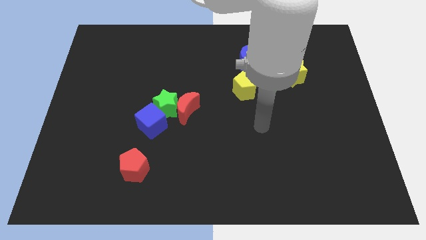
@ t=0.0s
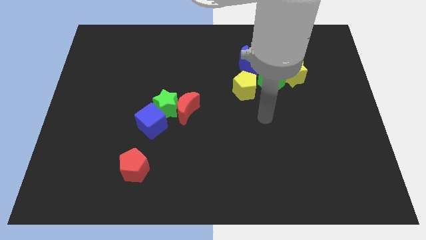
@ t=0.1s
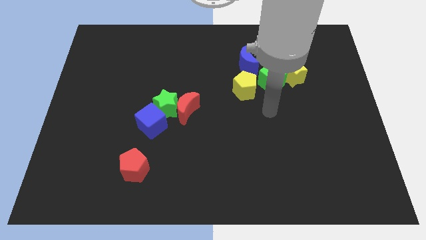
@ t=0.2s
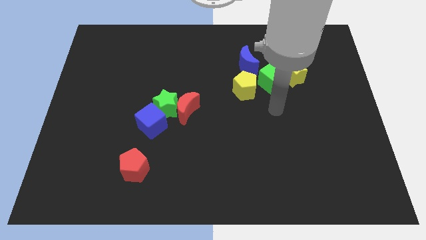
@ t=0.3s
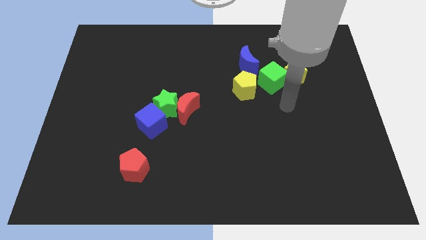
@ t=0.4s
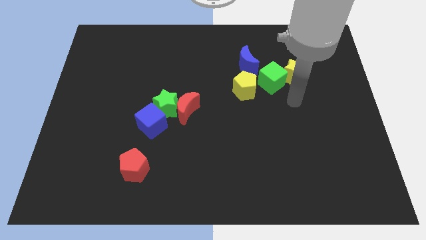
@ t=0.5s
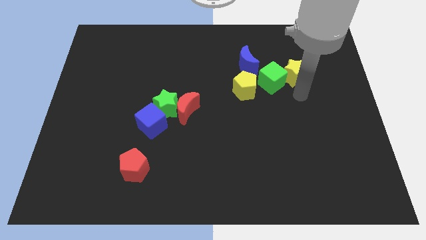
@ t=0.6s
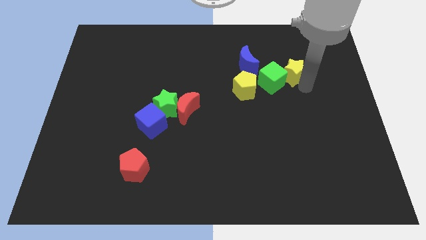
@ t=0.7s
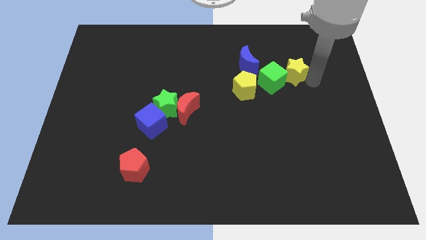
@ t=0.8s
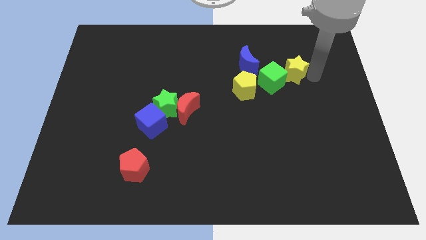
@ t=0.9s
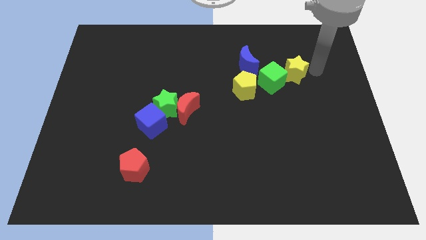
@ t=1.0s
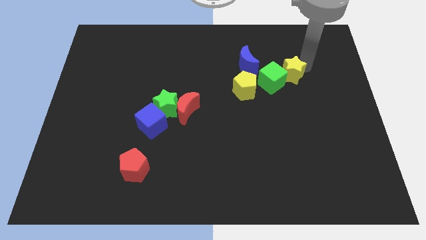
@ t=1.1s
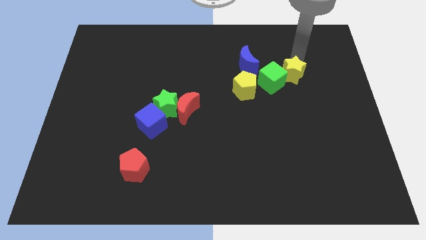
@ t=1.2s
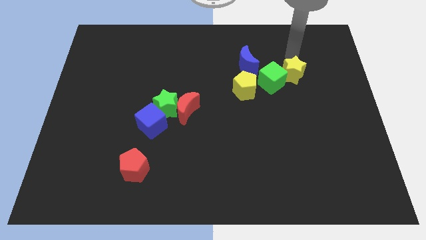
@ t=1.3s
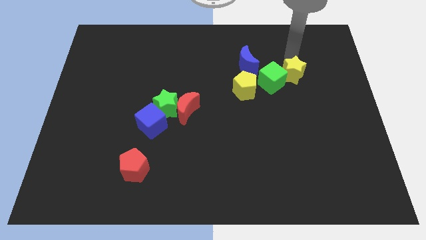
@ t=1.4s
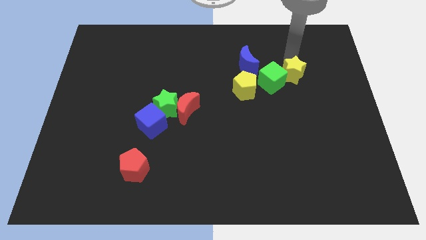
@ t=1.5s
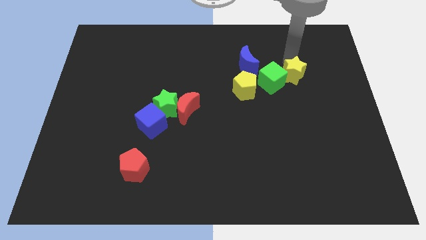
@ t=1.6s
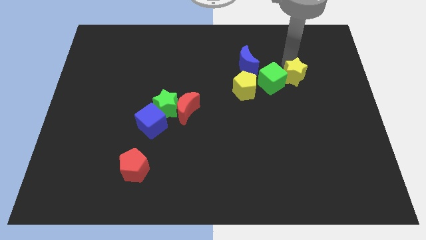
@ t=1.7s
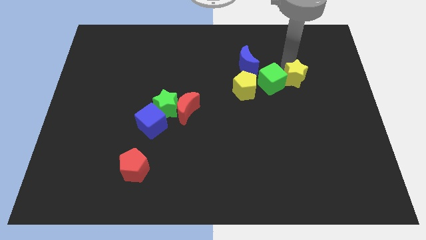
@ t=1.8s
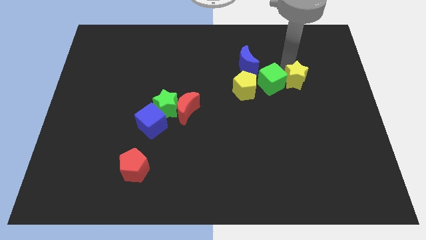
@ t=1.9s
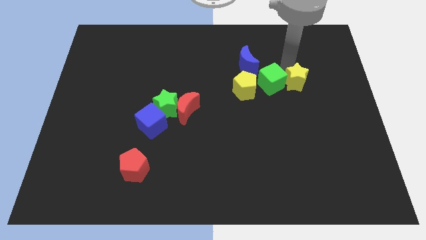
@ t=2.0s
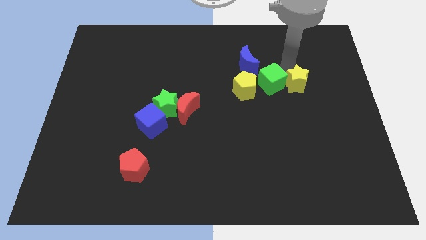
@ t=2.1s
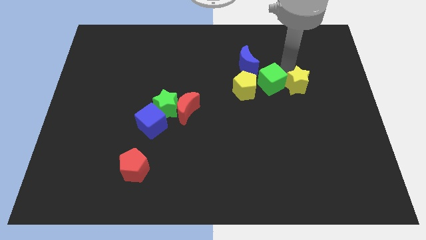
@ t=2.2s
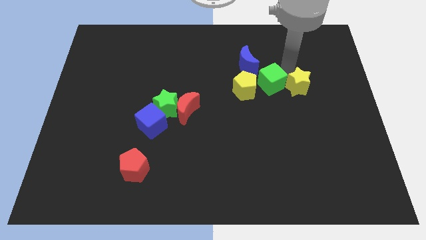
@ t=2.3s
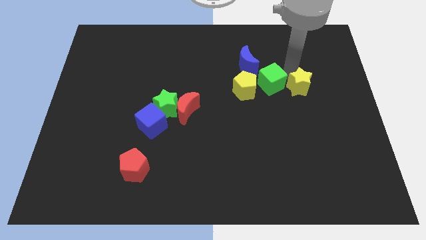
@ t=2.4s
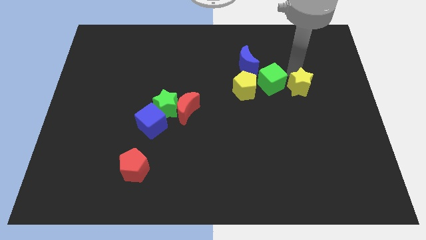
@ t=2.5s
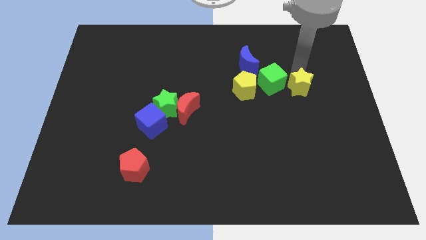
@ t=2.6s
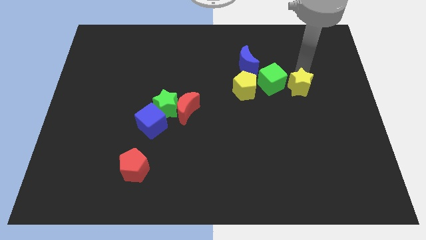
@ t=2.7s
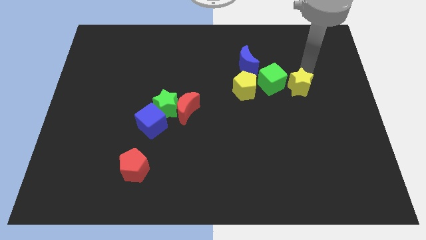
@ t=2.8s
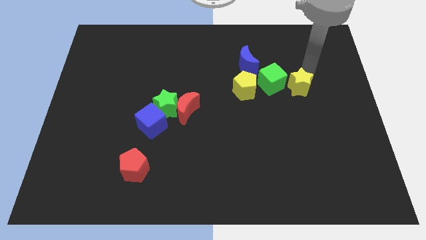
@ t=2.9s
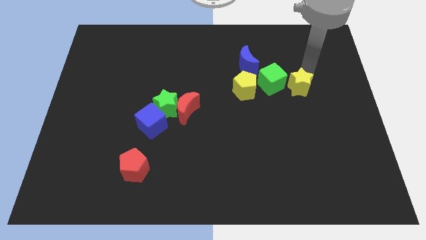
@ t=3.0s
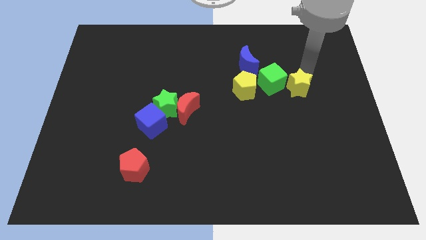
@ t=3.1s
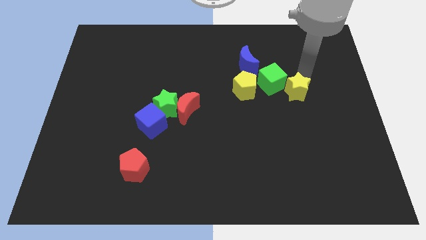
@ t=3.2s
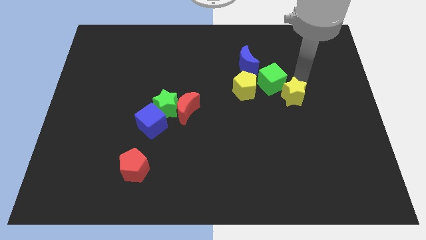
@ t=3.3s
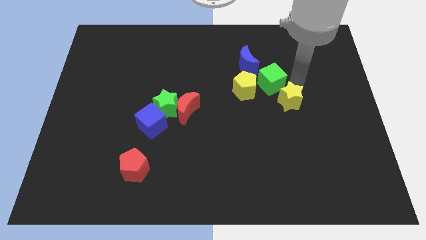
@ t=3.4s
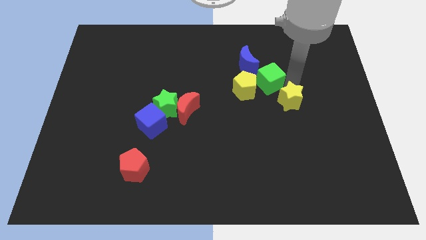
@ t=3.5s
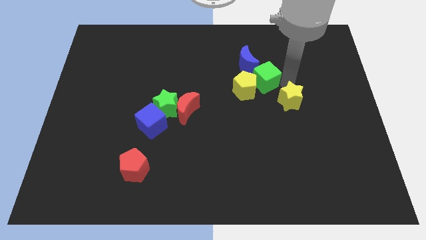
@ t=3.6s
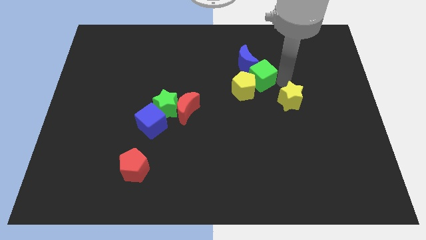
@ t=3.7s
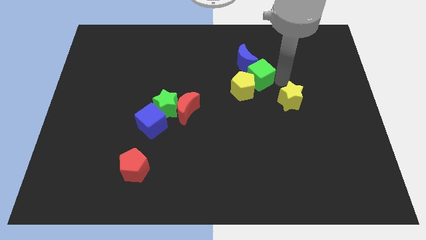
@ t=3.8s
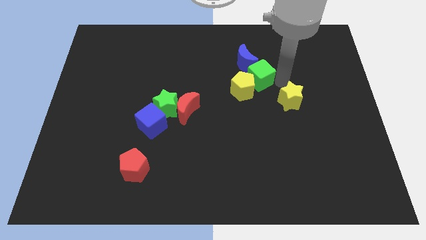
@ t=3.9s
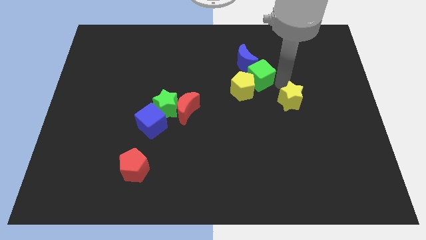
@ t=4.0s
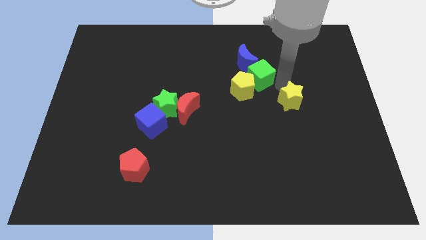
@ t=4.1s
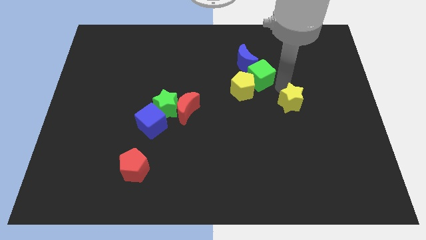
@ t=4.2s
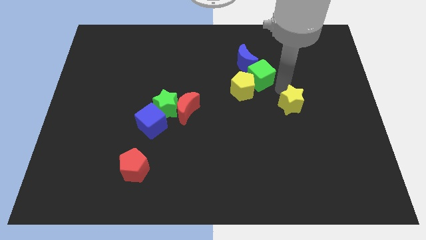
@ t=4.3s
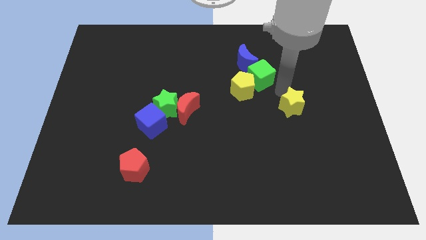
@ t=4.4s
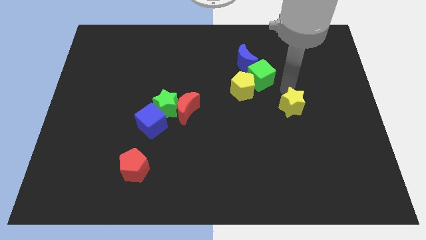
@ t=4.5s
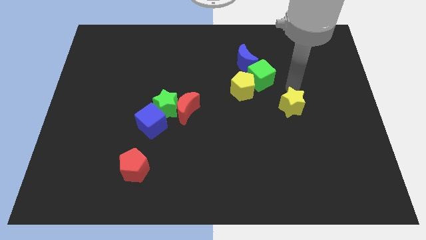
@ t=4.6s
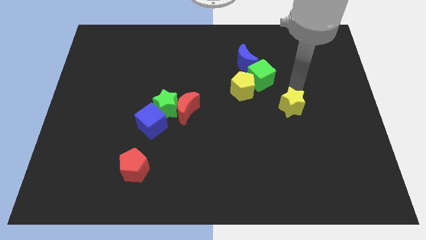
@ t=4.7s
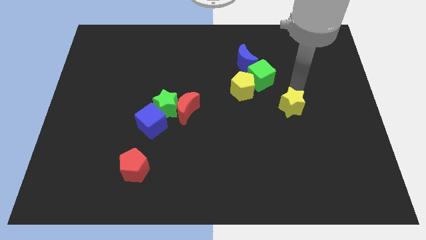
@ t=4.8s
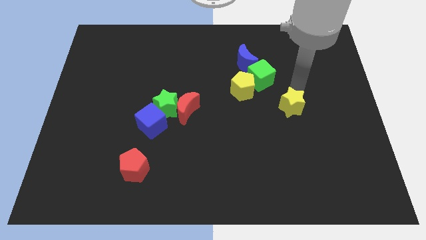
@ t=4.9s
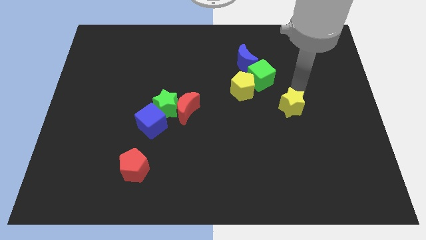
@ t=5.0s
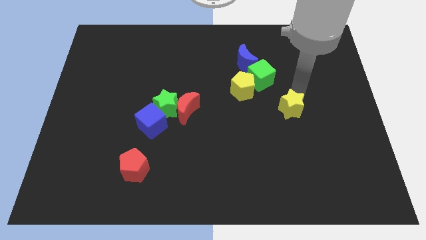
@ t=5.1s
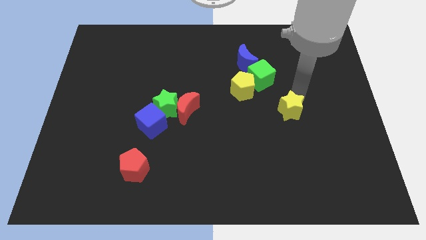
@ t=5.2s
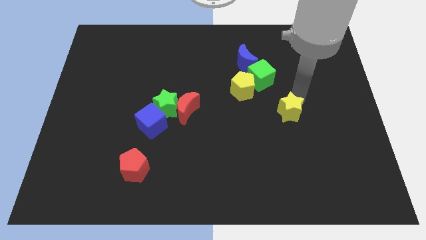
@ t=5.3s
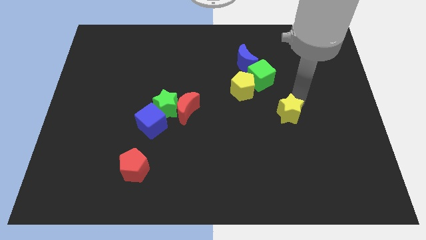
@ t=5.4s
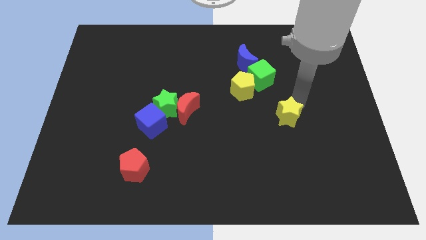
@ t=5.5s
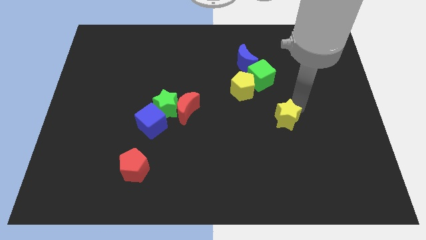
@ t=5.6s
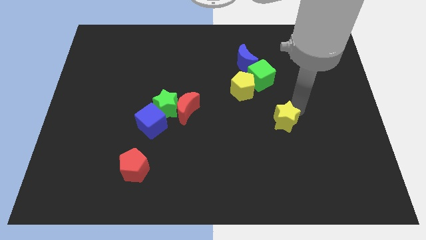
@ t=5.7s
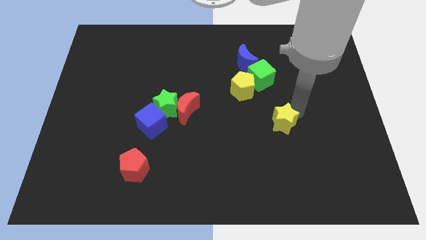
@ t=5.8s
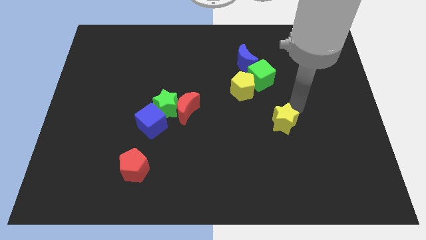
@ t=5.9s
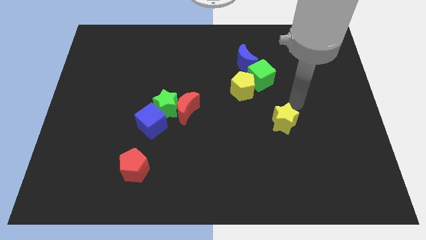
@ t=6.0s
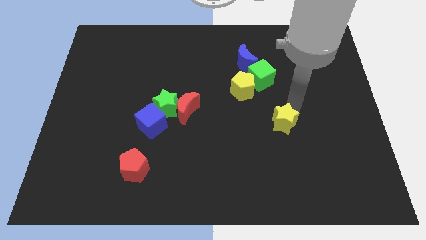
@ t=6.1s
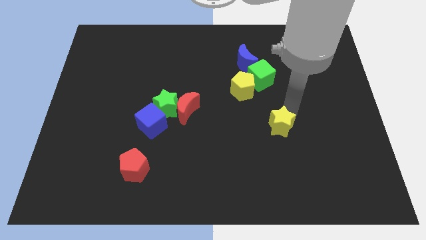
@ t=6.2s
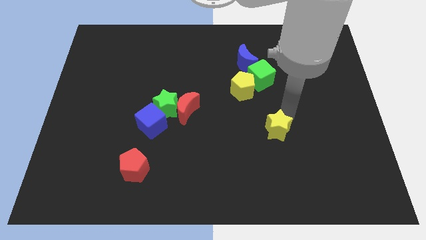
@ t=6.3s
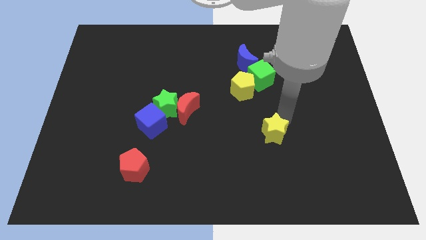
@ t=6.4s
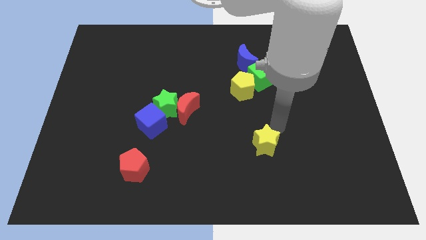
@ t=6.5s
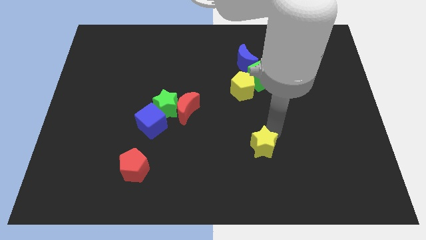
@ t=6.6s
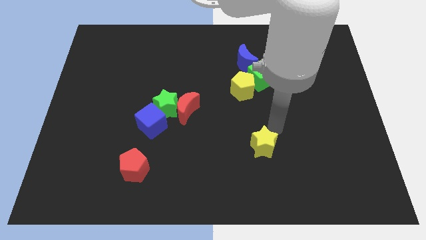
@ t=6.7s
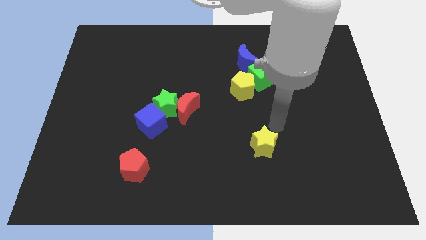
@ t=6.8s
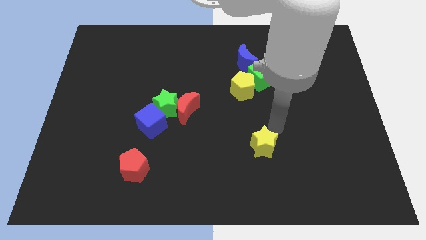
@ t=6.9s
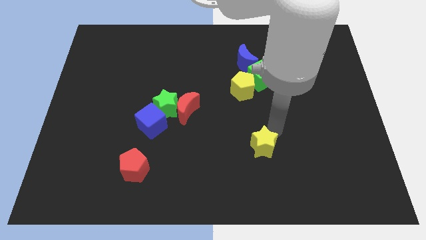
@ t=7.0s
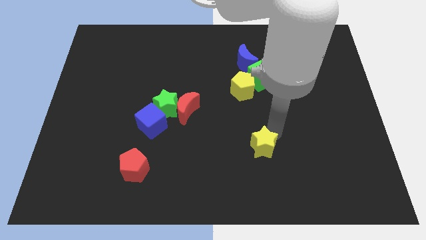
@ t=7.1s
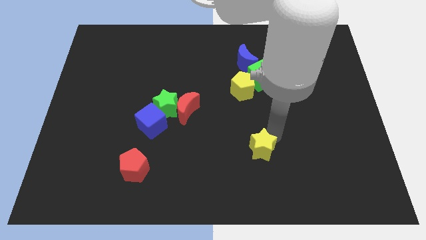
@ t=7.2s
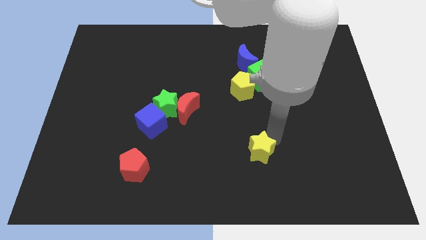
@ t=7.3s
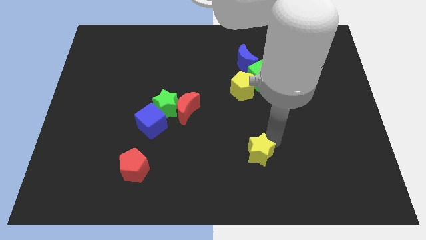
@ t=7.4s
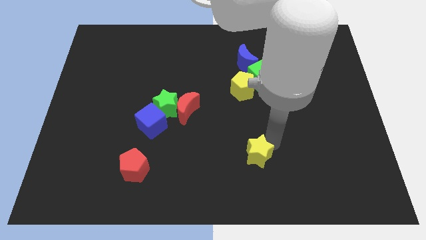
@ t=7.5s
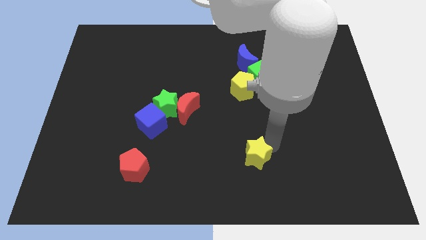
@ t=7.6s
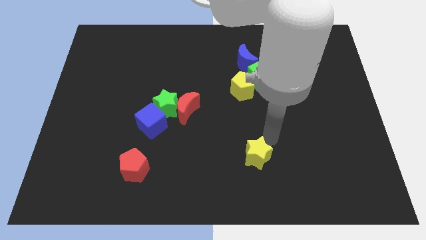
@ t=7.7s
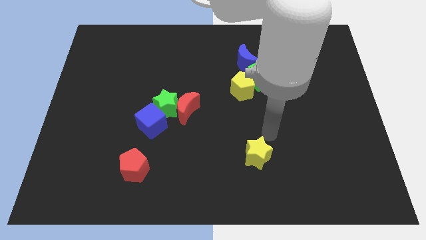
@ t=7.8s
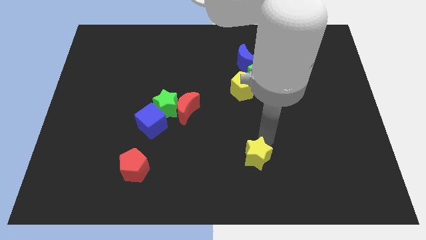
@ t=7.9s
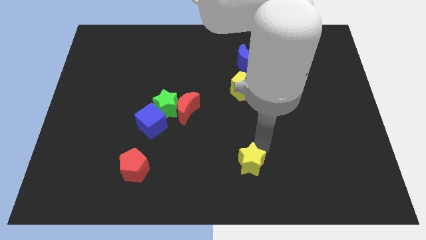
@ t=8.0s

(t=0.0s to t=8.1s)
slide the yellow star to the bottom side
